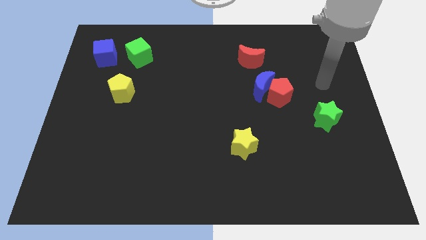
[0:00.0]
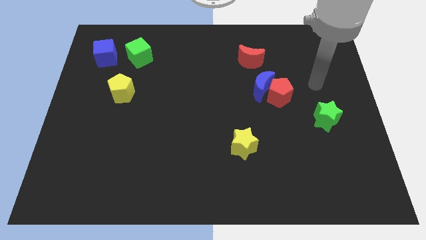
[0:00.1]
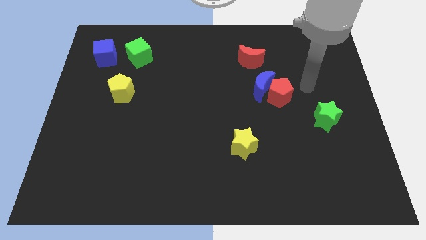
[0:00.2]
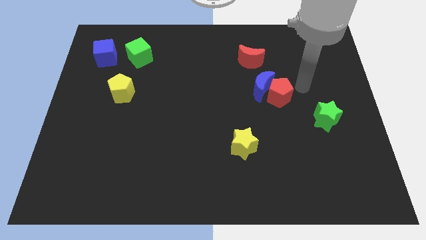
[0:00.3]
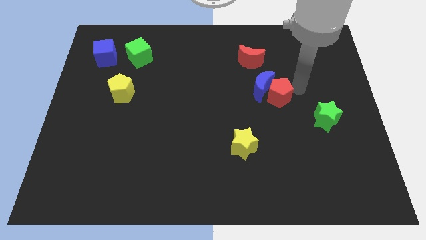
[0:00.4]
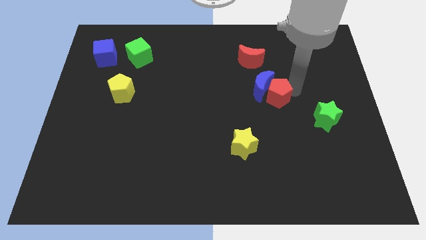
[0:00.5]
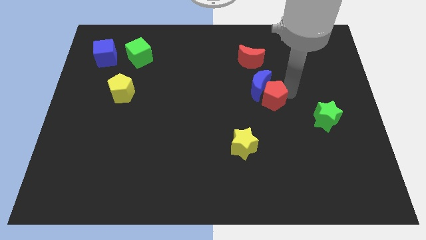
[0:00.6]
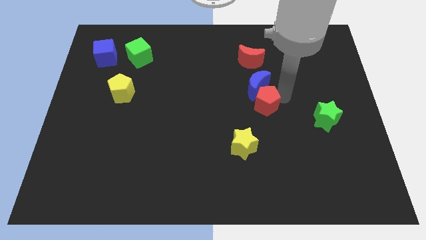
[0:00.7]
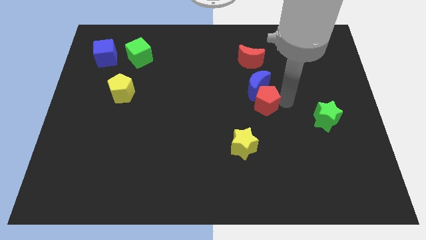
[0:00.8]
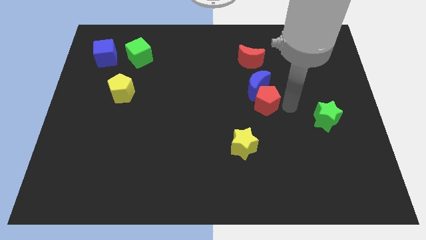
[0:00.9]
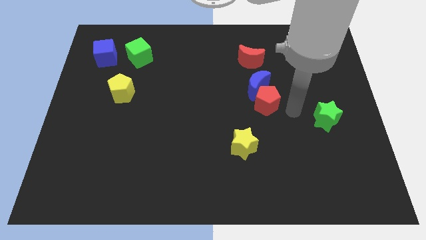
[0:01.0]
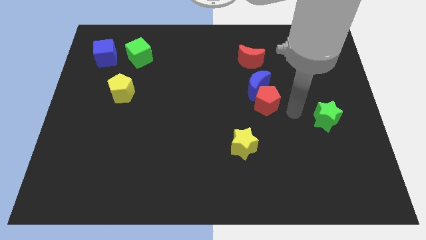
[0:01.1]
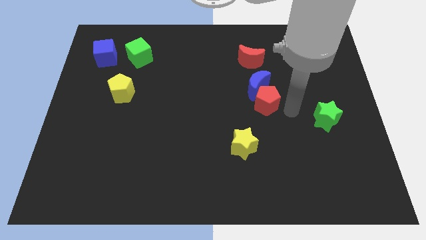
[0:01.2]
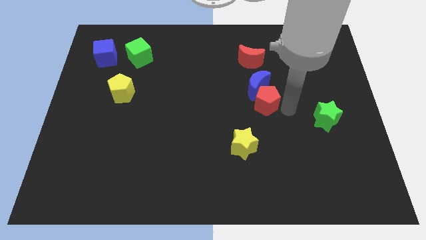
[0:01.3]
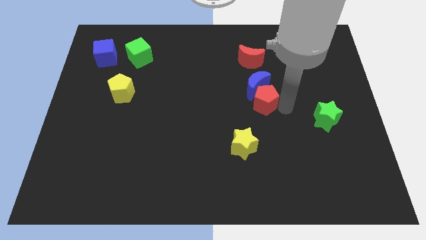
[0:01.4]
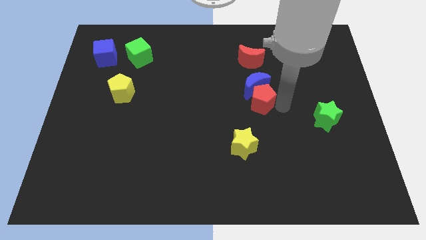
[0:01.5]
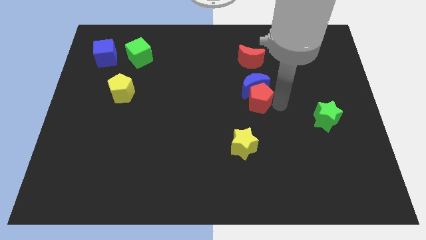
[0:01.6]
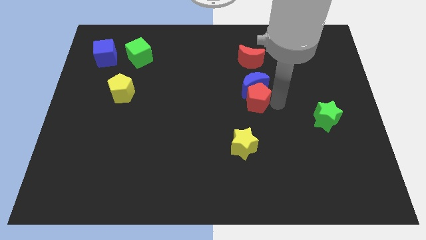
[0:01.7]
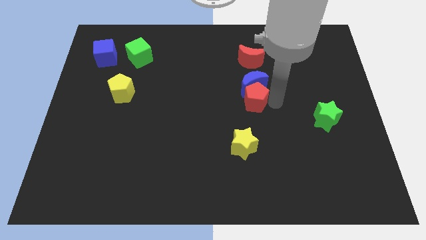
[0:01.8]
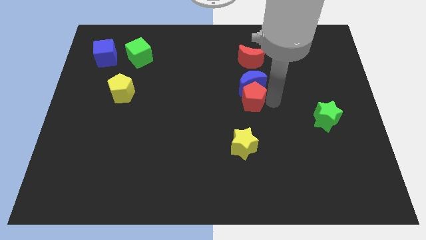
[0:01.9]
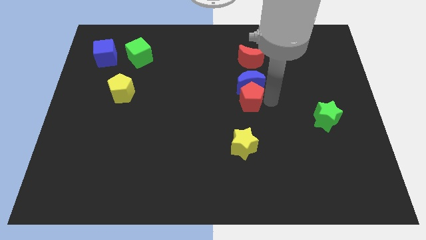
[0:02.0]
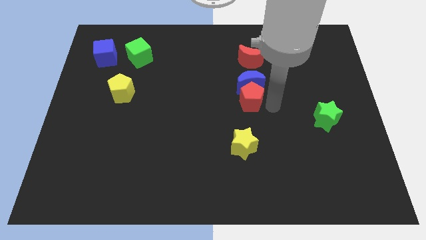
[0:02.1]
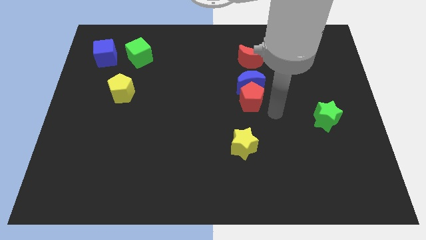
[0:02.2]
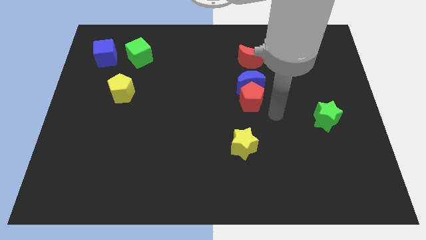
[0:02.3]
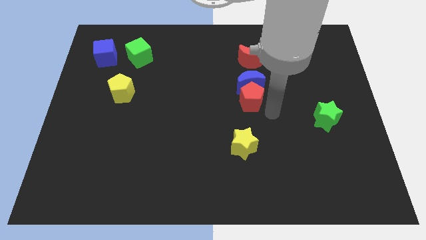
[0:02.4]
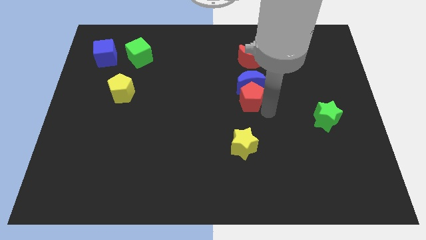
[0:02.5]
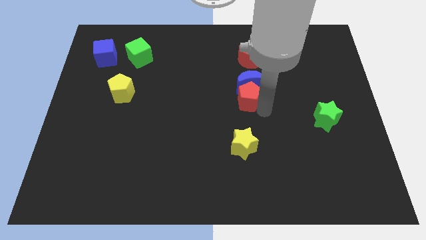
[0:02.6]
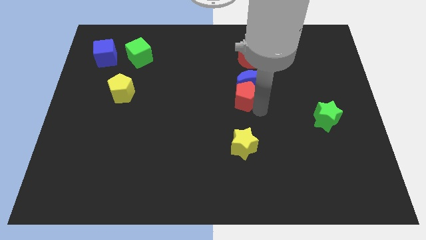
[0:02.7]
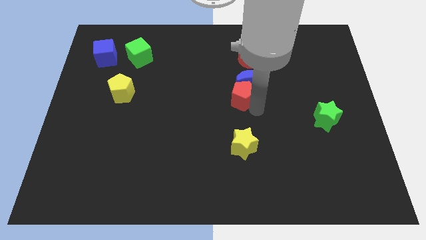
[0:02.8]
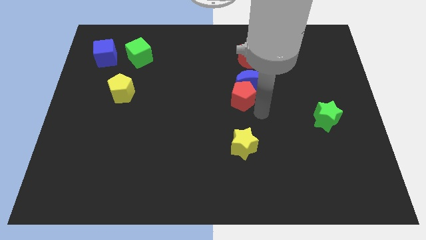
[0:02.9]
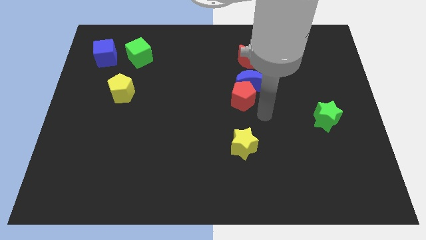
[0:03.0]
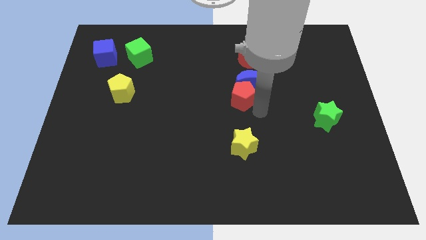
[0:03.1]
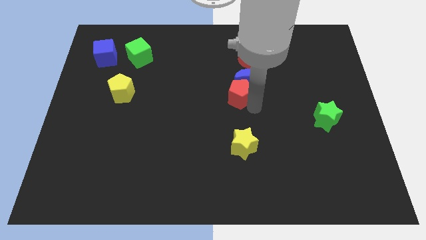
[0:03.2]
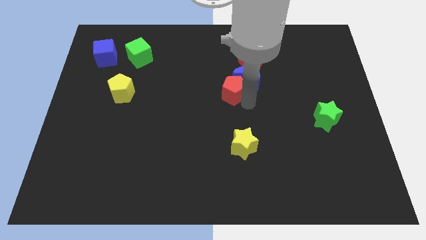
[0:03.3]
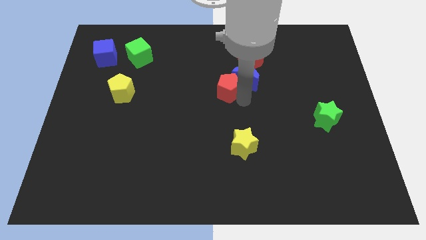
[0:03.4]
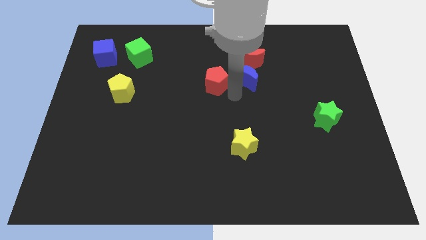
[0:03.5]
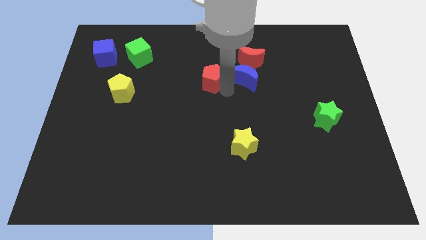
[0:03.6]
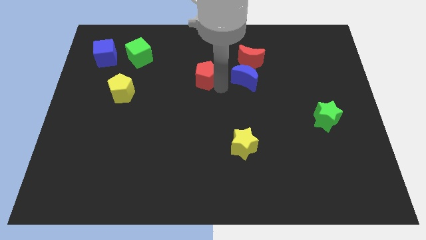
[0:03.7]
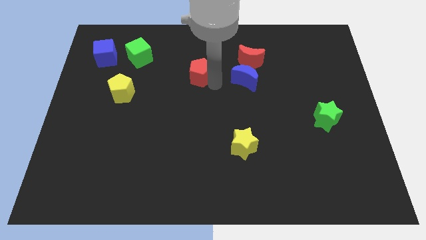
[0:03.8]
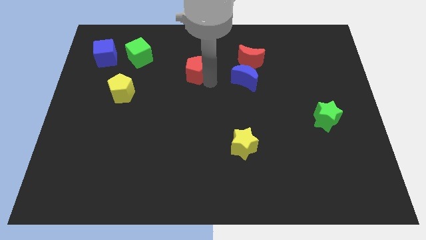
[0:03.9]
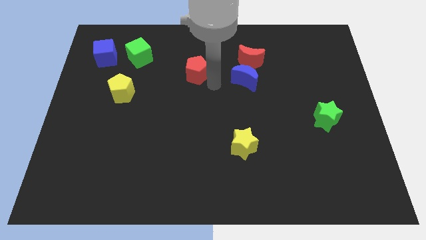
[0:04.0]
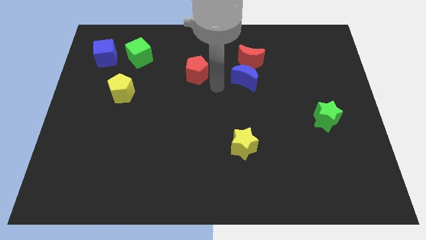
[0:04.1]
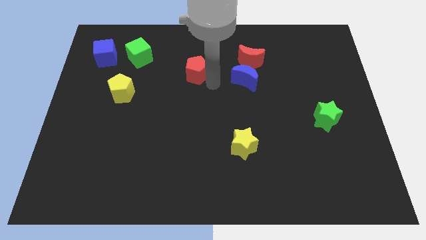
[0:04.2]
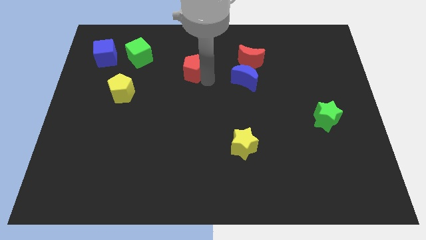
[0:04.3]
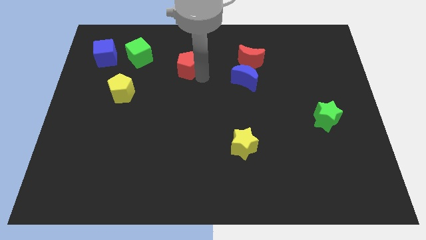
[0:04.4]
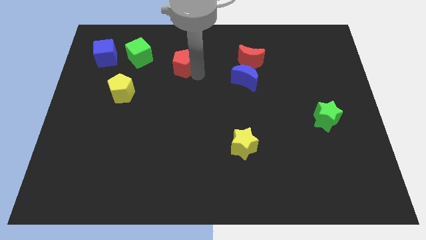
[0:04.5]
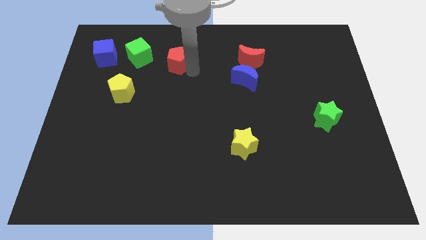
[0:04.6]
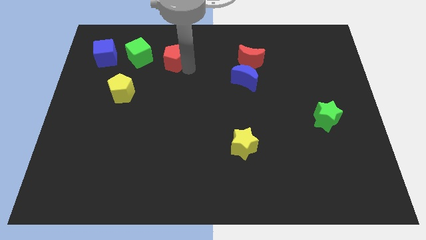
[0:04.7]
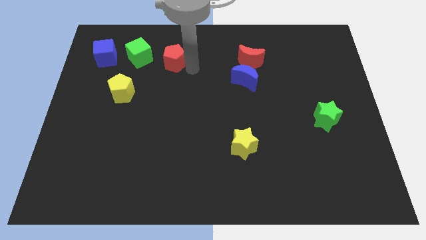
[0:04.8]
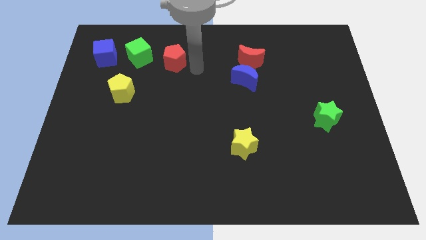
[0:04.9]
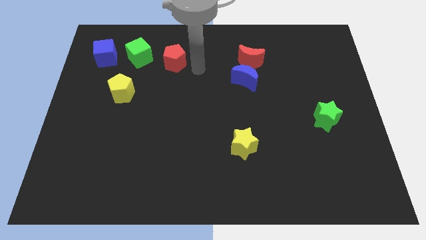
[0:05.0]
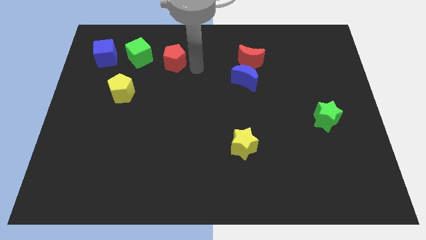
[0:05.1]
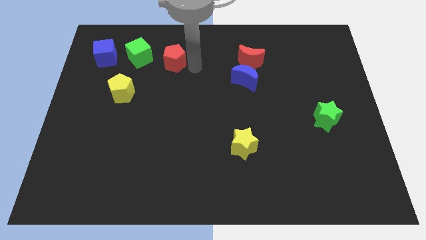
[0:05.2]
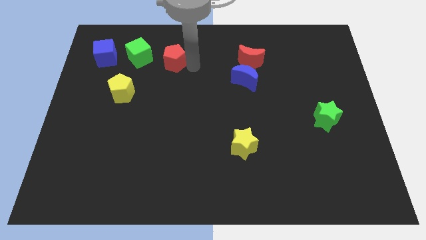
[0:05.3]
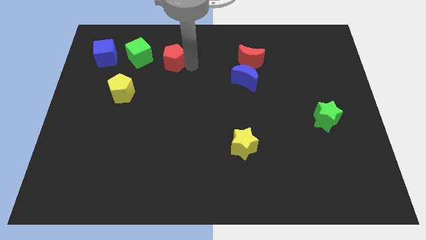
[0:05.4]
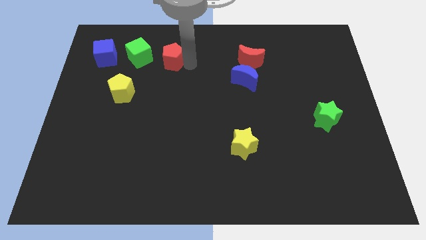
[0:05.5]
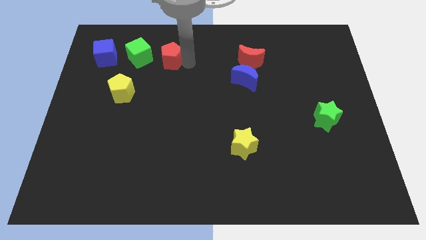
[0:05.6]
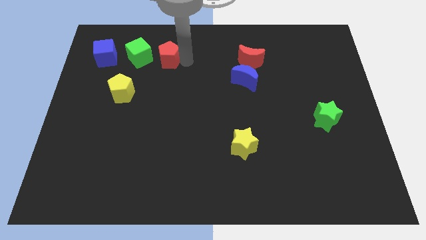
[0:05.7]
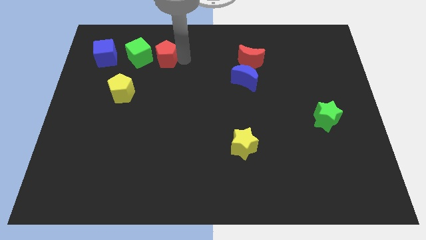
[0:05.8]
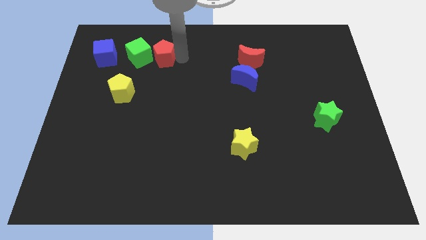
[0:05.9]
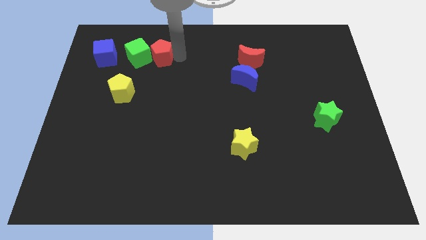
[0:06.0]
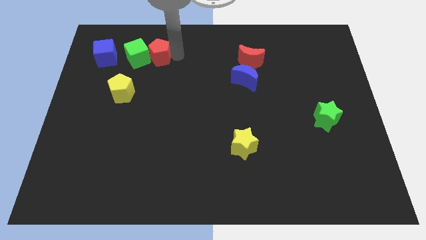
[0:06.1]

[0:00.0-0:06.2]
put the red pentagon next to the green cube

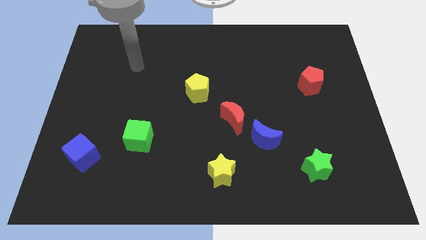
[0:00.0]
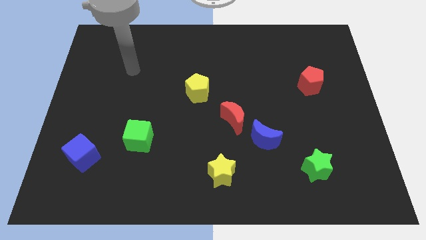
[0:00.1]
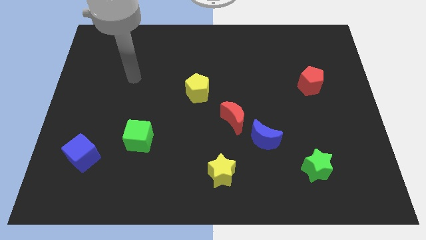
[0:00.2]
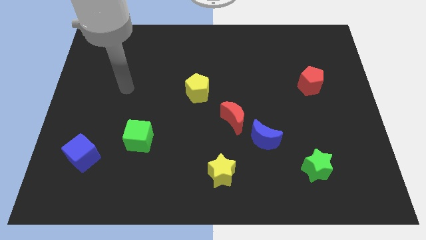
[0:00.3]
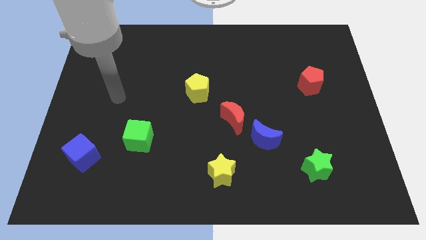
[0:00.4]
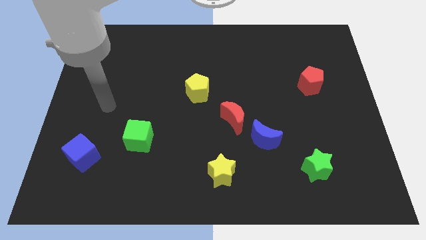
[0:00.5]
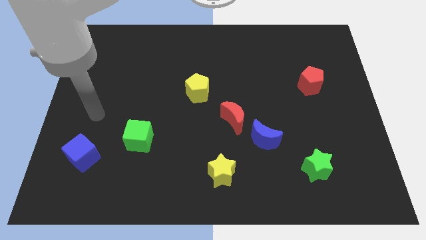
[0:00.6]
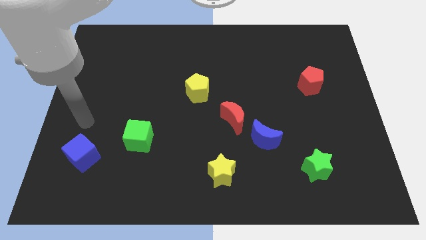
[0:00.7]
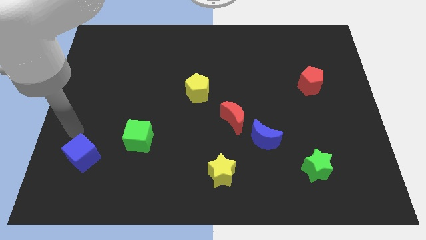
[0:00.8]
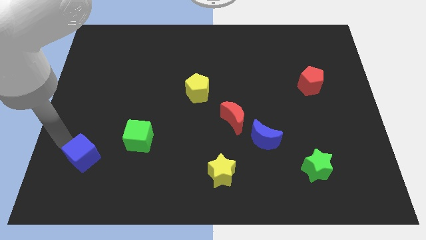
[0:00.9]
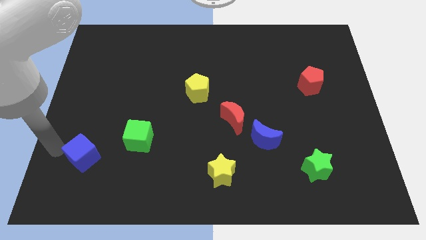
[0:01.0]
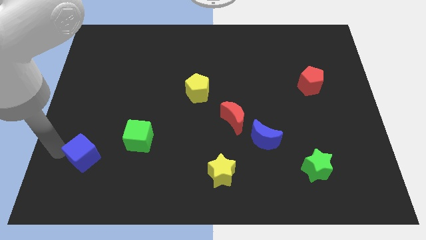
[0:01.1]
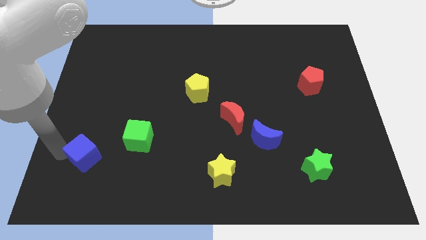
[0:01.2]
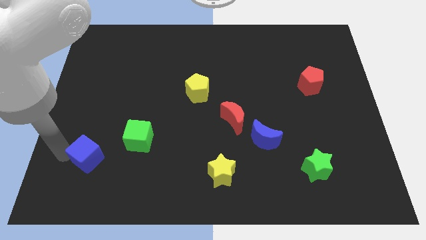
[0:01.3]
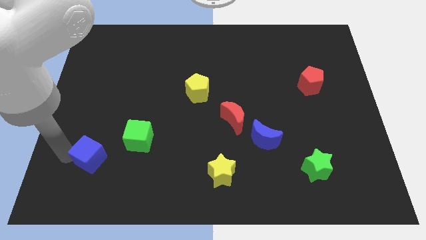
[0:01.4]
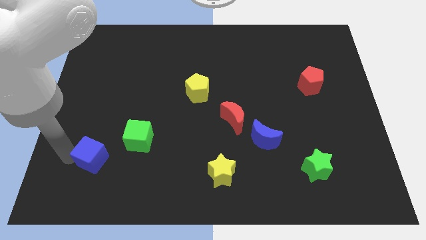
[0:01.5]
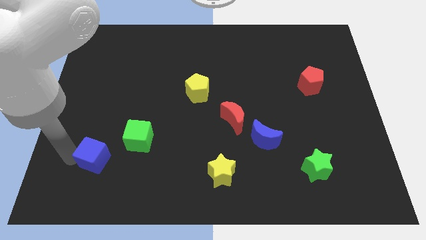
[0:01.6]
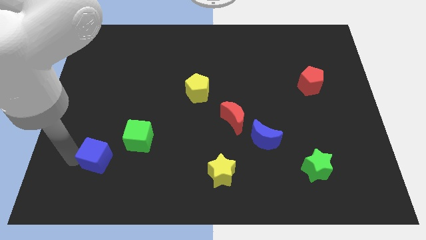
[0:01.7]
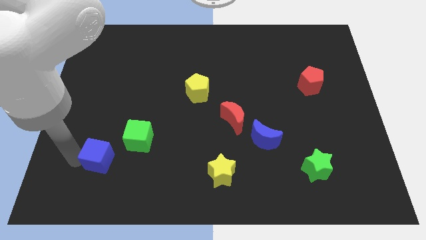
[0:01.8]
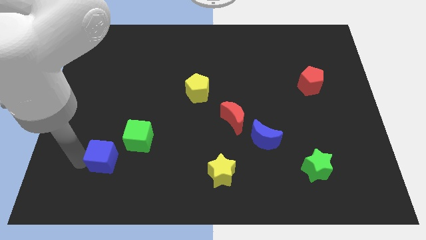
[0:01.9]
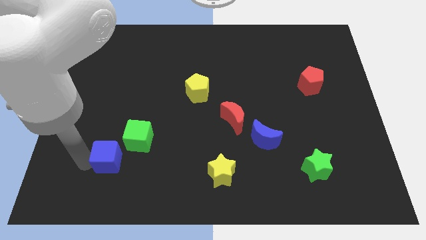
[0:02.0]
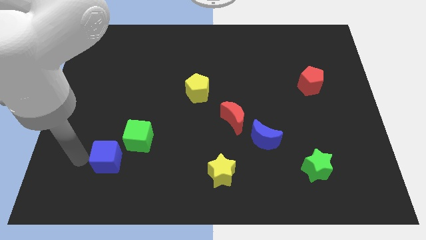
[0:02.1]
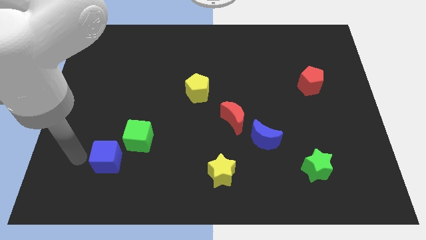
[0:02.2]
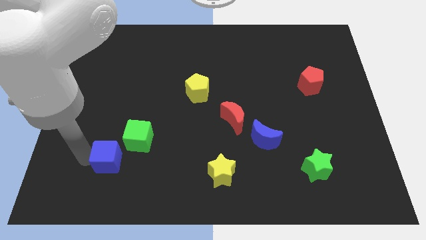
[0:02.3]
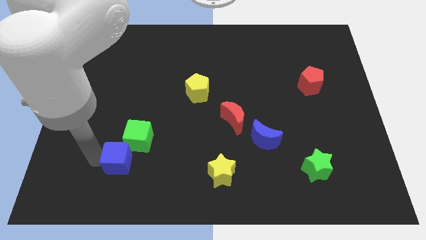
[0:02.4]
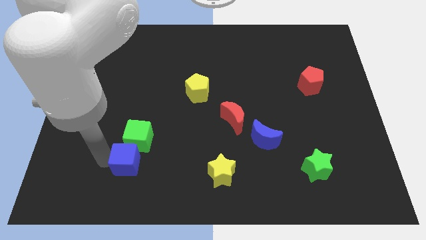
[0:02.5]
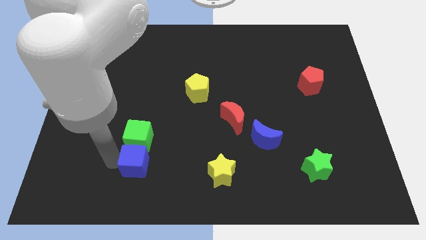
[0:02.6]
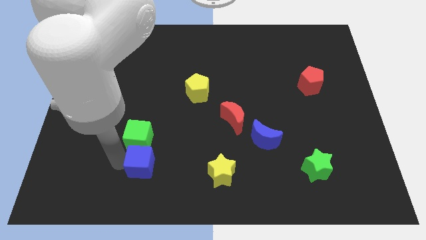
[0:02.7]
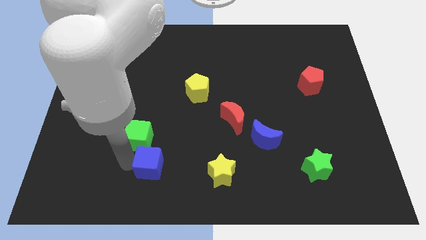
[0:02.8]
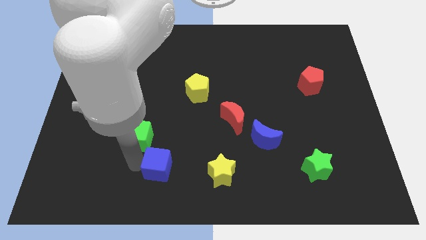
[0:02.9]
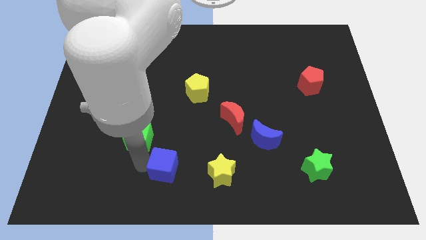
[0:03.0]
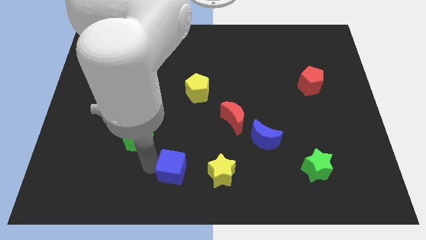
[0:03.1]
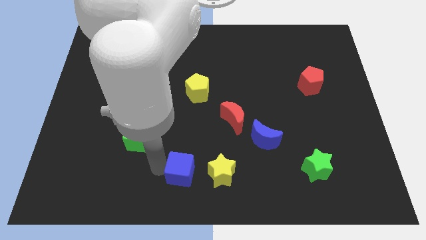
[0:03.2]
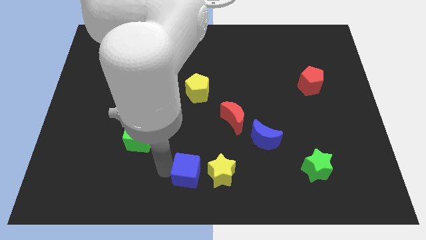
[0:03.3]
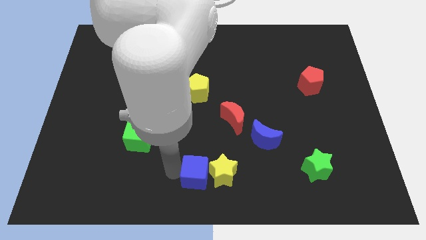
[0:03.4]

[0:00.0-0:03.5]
push the blue cube close to the yellow star
